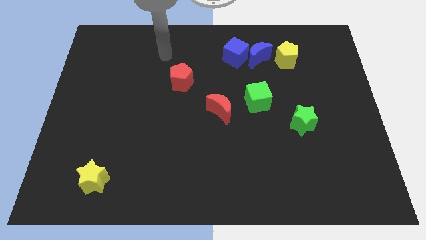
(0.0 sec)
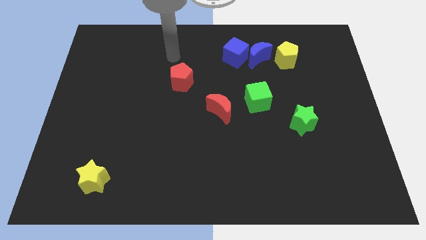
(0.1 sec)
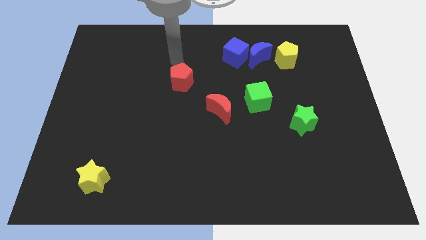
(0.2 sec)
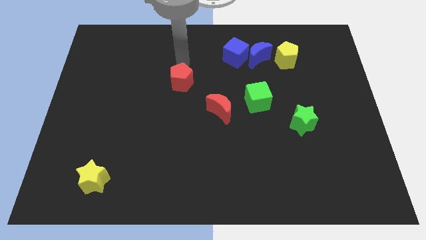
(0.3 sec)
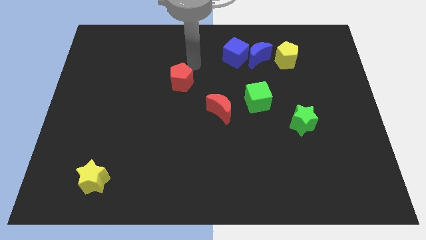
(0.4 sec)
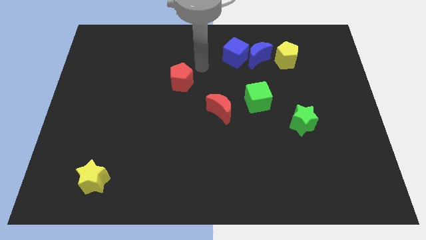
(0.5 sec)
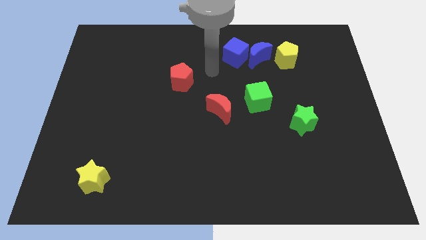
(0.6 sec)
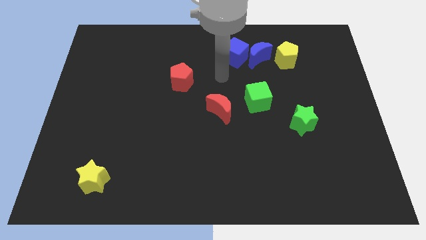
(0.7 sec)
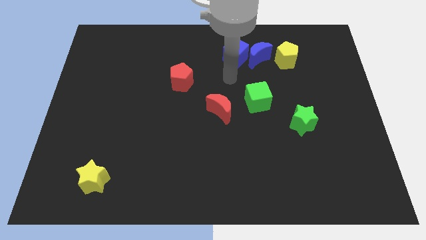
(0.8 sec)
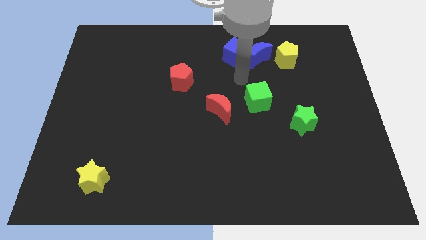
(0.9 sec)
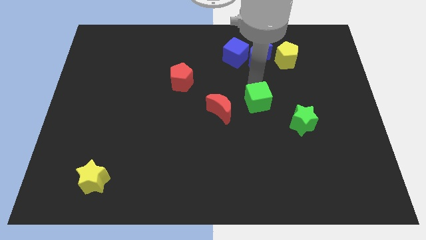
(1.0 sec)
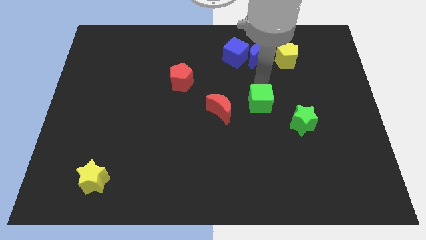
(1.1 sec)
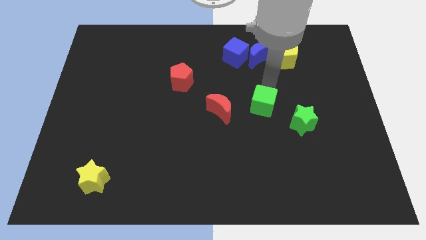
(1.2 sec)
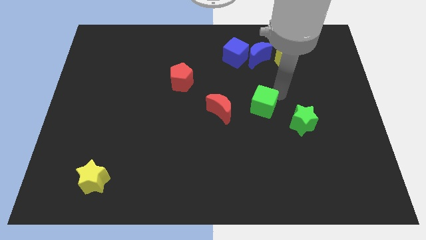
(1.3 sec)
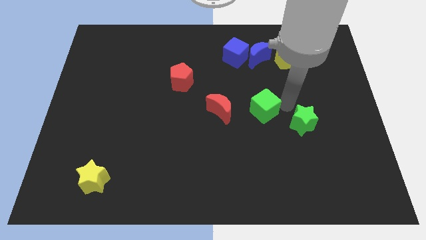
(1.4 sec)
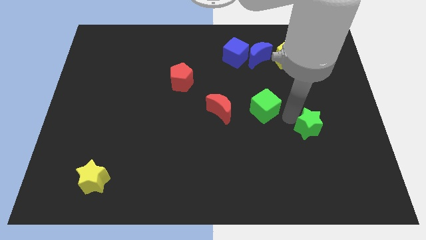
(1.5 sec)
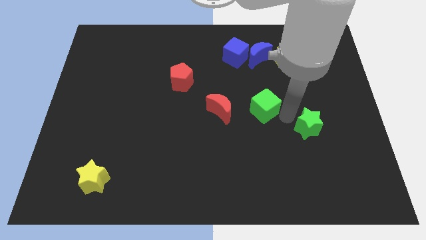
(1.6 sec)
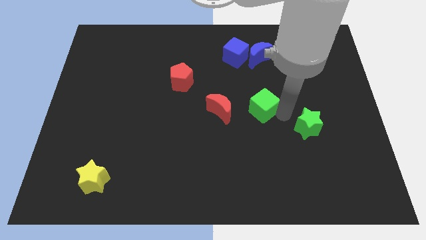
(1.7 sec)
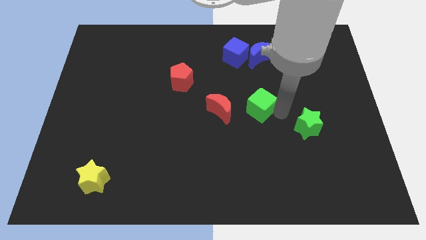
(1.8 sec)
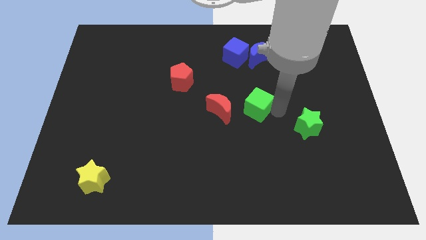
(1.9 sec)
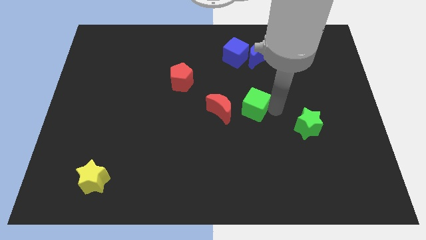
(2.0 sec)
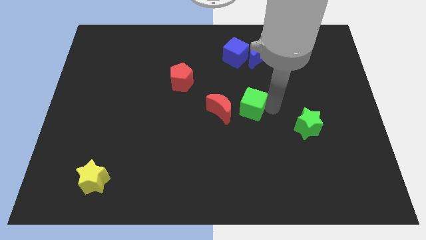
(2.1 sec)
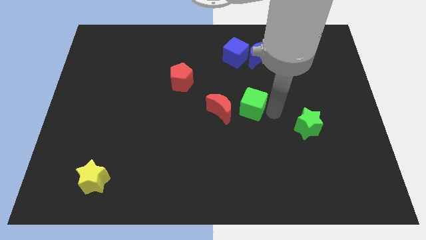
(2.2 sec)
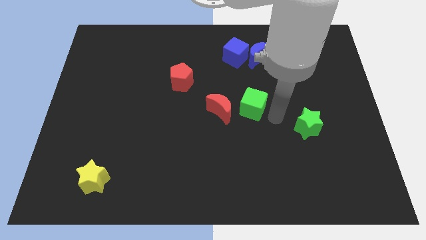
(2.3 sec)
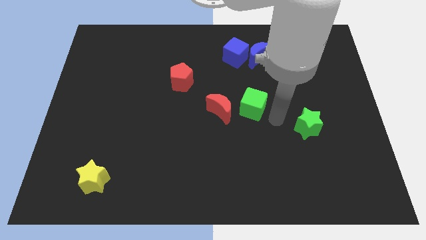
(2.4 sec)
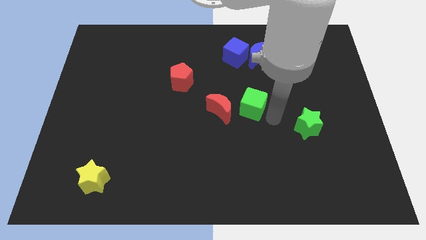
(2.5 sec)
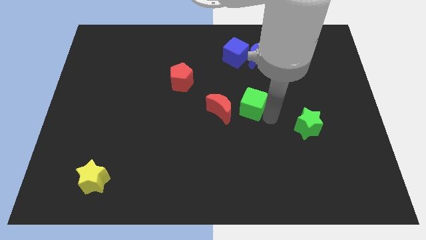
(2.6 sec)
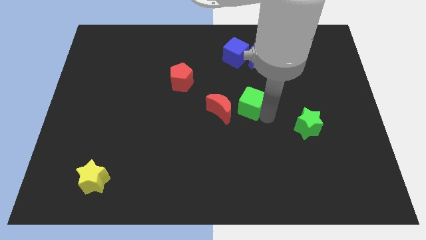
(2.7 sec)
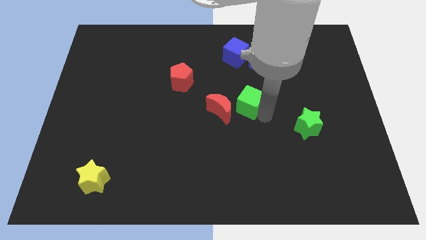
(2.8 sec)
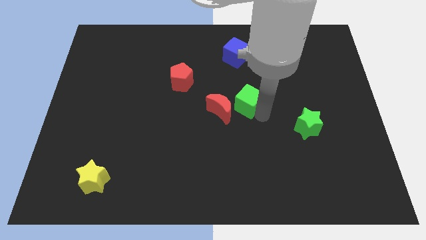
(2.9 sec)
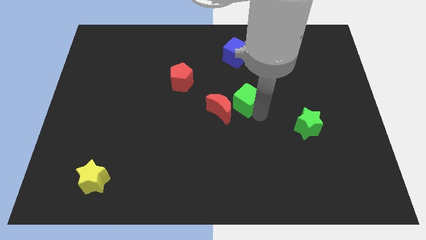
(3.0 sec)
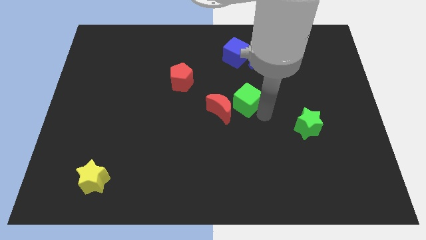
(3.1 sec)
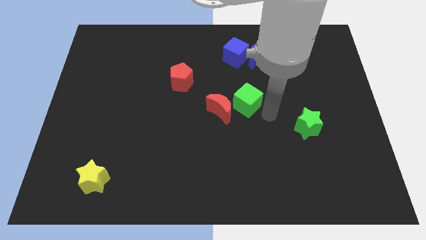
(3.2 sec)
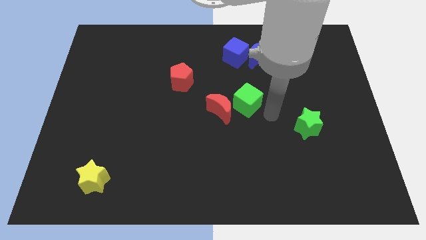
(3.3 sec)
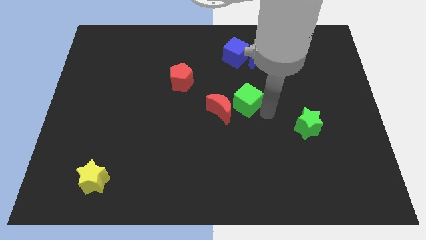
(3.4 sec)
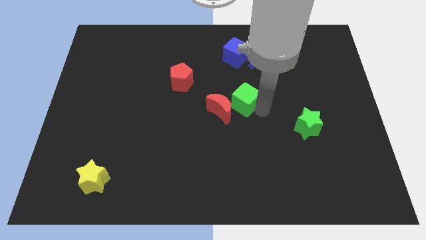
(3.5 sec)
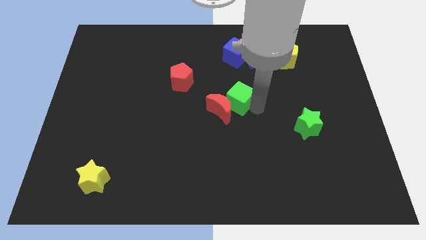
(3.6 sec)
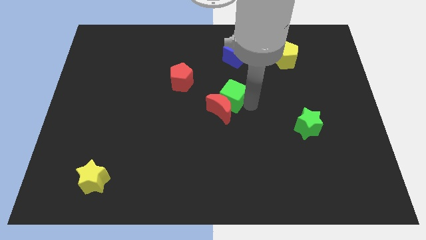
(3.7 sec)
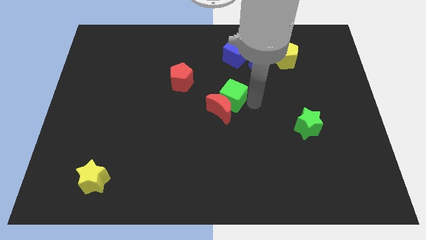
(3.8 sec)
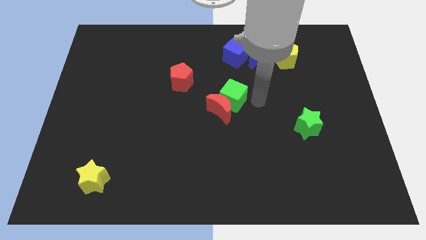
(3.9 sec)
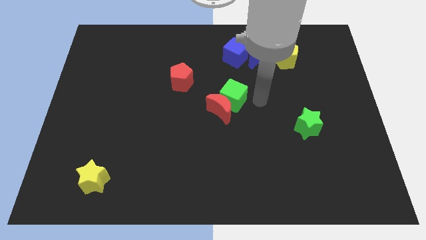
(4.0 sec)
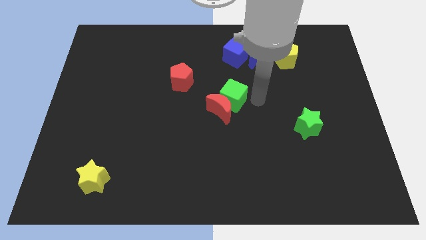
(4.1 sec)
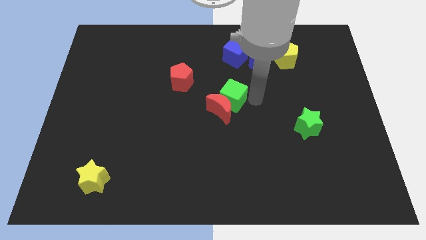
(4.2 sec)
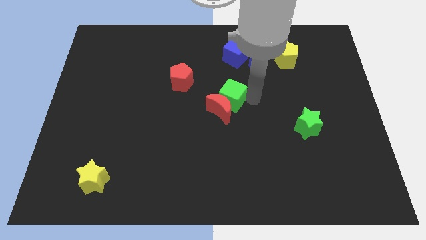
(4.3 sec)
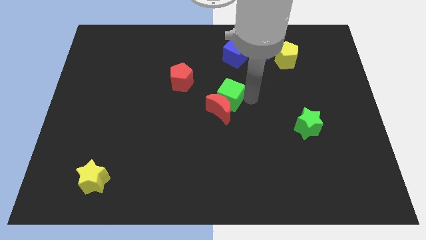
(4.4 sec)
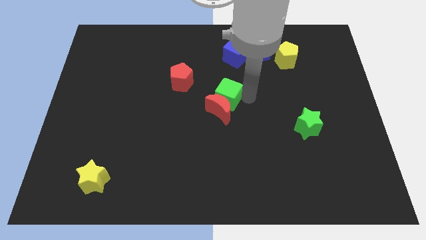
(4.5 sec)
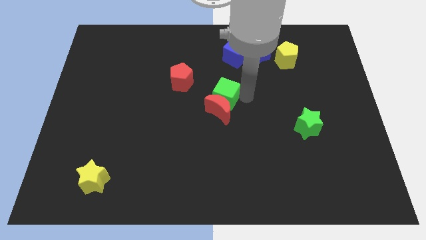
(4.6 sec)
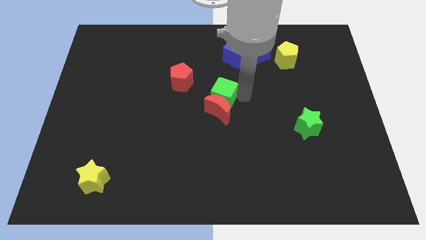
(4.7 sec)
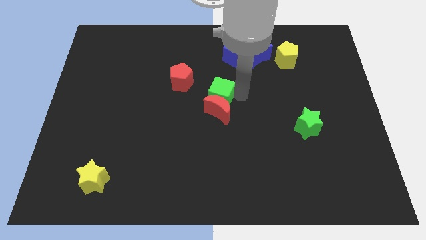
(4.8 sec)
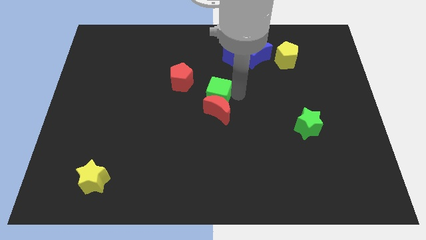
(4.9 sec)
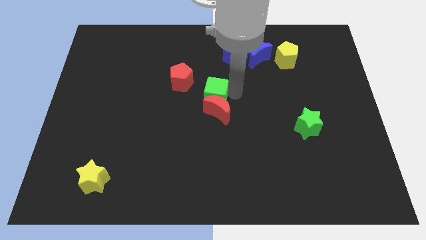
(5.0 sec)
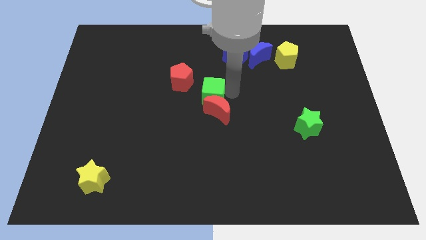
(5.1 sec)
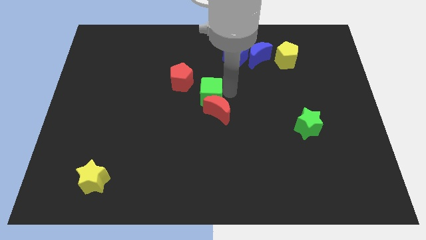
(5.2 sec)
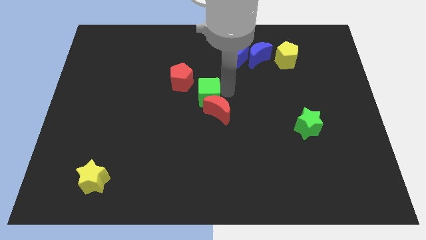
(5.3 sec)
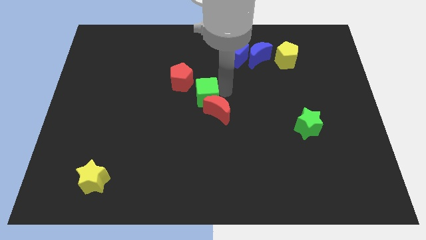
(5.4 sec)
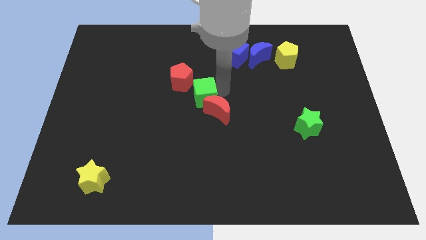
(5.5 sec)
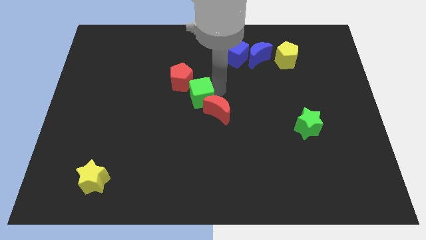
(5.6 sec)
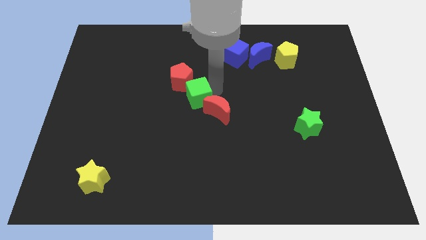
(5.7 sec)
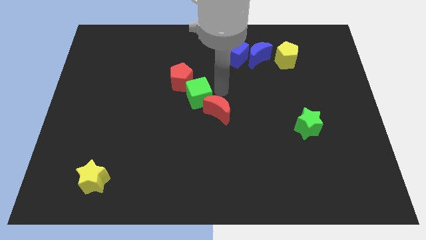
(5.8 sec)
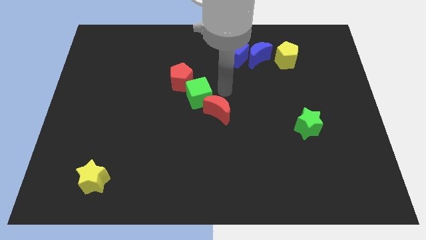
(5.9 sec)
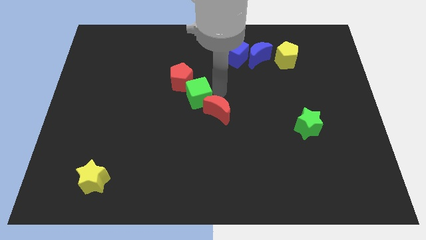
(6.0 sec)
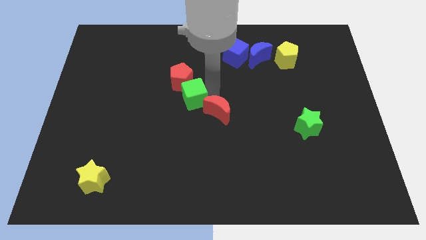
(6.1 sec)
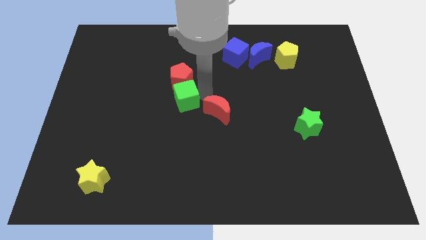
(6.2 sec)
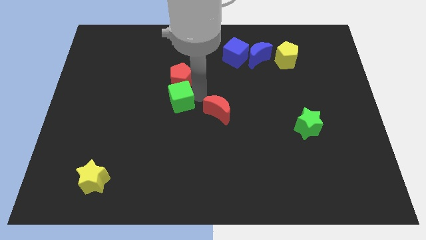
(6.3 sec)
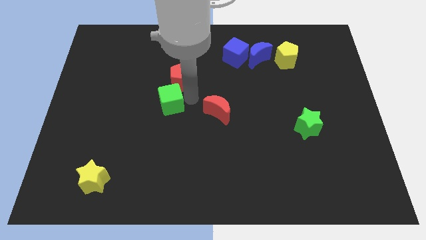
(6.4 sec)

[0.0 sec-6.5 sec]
move the green cube to the left

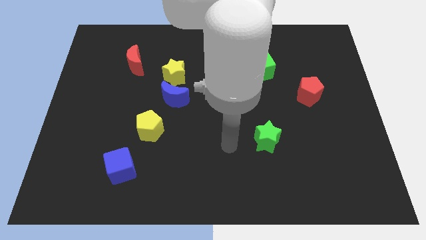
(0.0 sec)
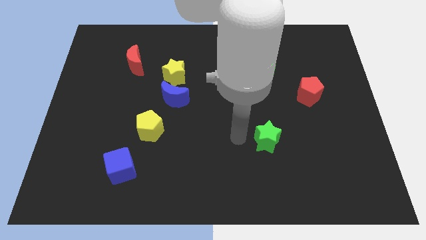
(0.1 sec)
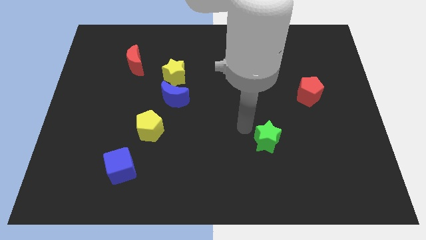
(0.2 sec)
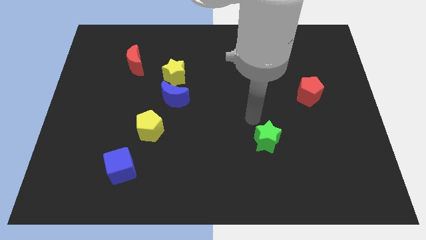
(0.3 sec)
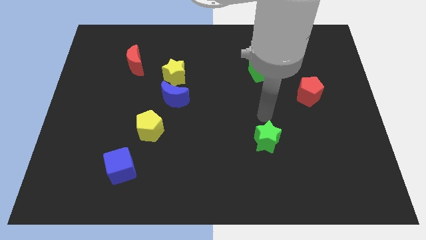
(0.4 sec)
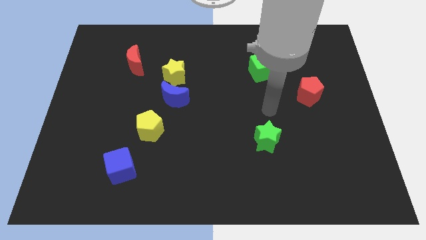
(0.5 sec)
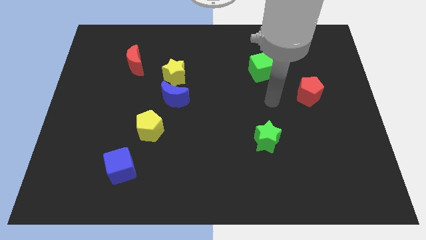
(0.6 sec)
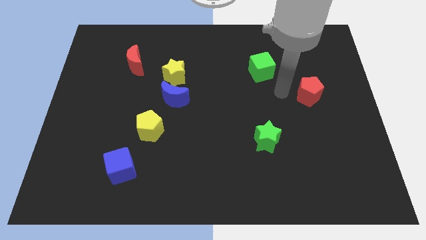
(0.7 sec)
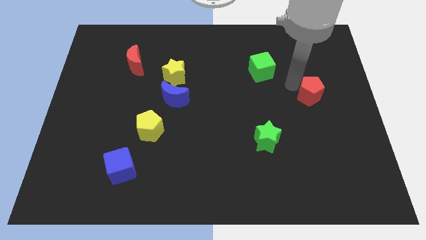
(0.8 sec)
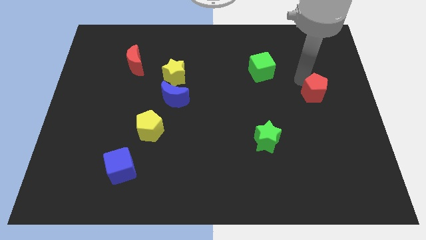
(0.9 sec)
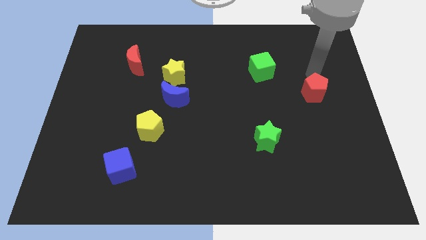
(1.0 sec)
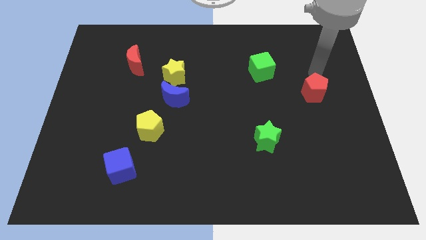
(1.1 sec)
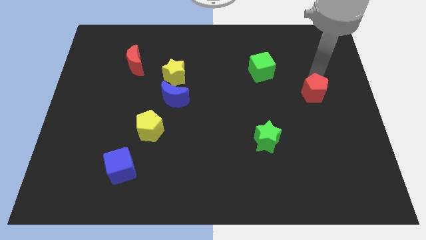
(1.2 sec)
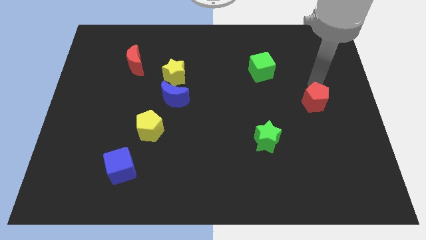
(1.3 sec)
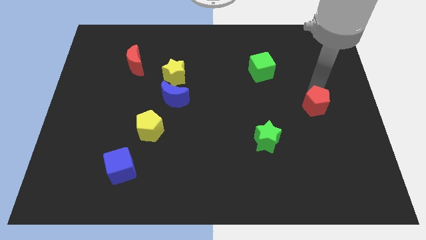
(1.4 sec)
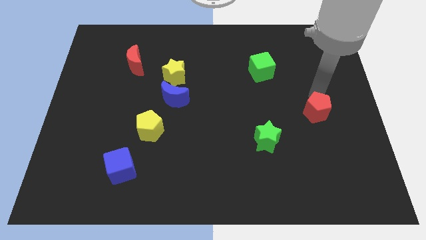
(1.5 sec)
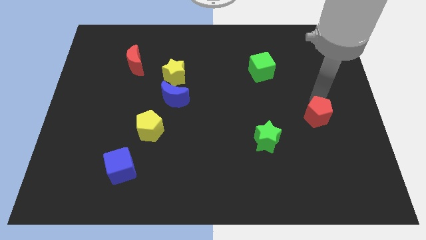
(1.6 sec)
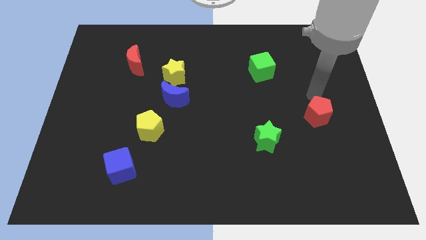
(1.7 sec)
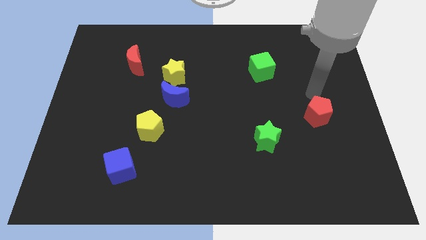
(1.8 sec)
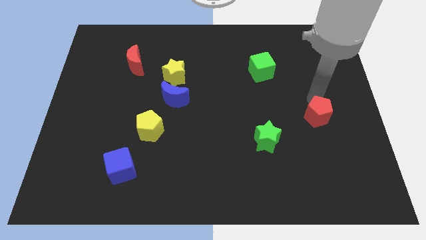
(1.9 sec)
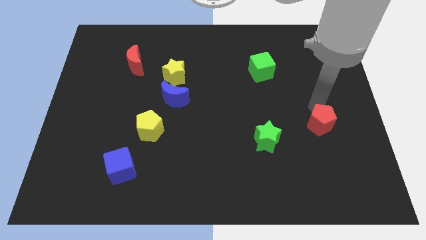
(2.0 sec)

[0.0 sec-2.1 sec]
slightly move the red pentagon down
